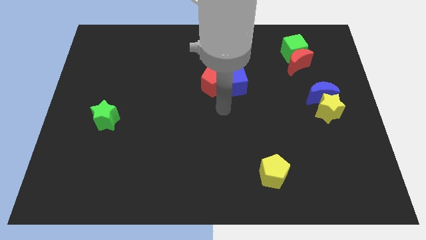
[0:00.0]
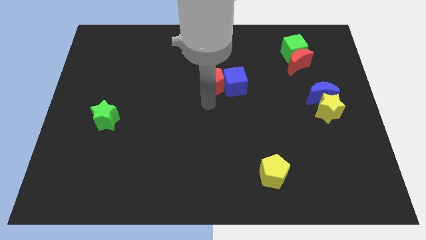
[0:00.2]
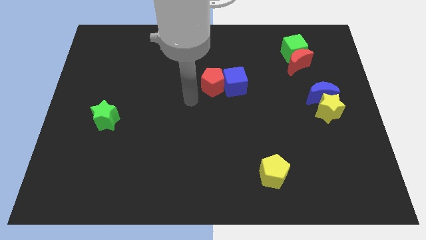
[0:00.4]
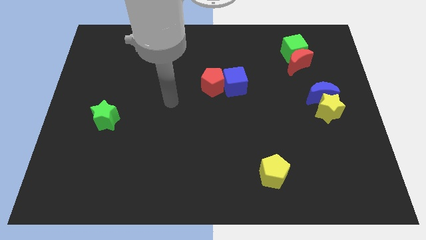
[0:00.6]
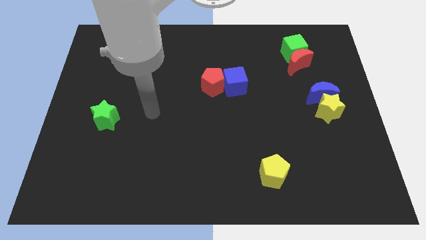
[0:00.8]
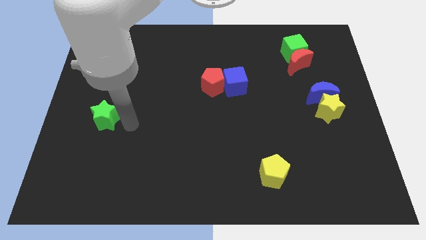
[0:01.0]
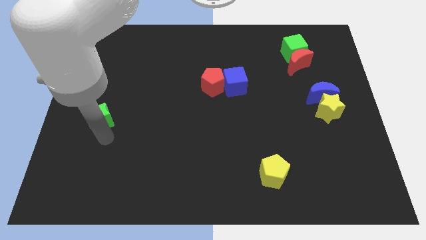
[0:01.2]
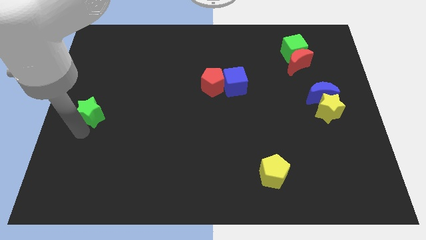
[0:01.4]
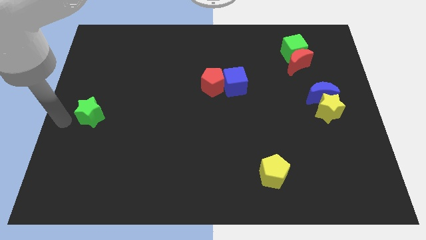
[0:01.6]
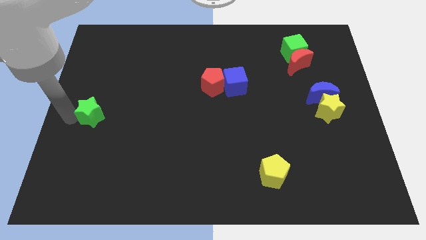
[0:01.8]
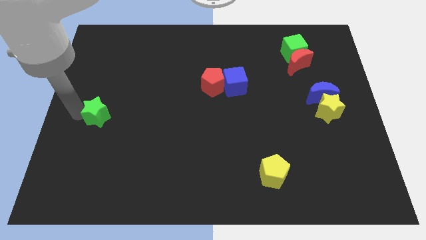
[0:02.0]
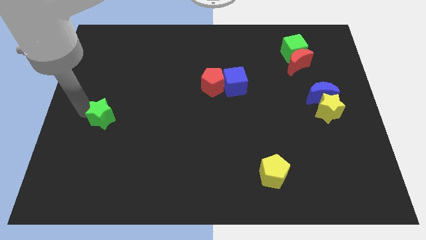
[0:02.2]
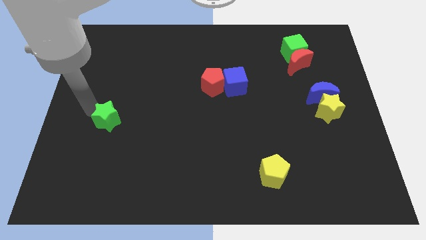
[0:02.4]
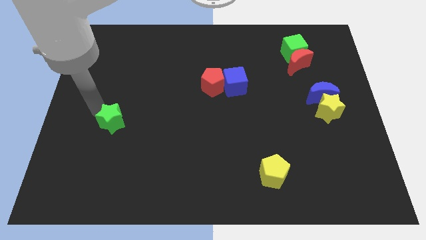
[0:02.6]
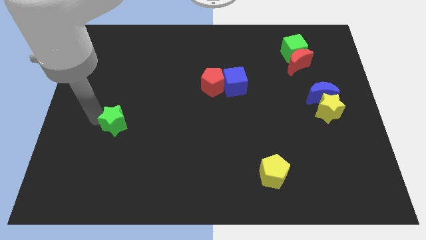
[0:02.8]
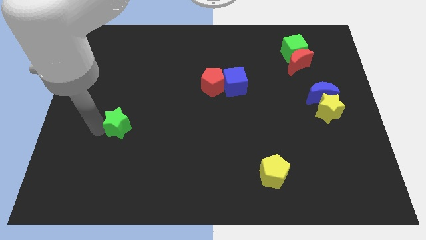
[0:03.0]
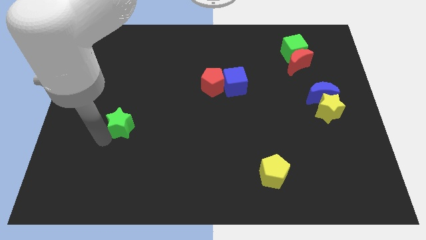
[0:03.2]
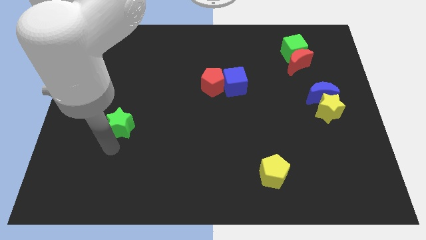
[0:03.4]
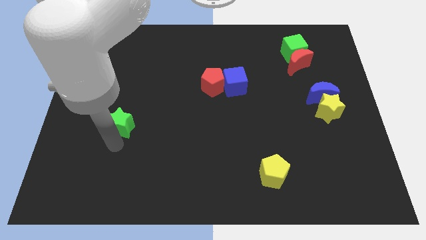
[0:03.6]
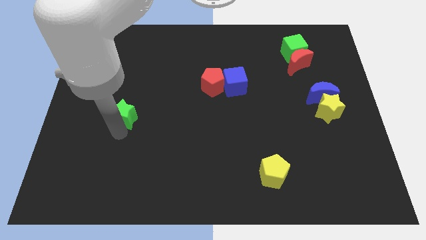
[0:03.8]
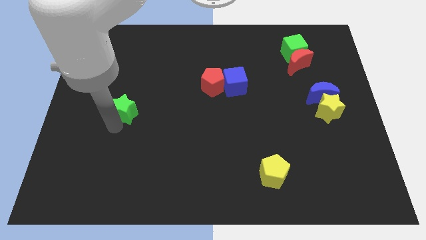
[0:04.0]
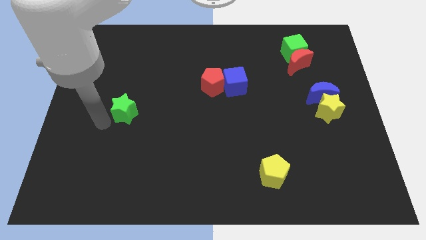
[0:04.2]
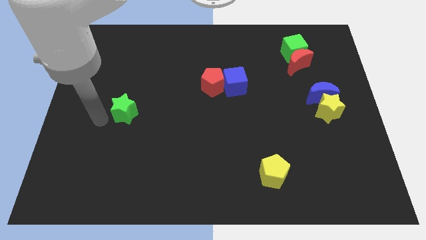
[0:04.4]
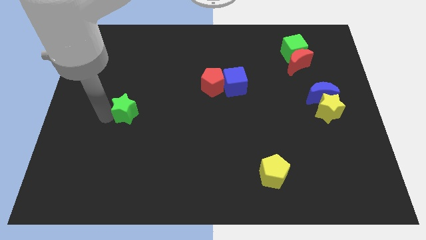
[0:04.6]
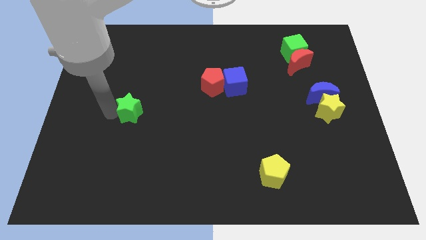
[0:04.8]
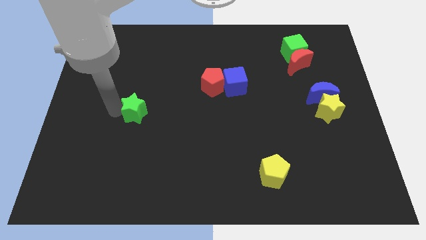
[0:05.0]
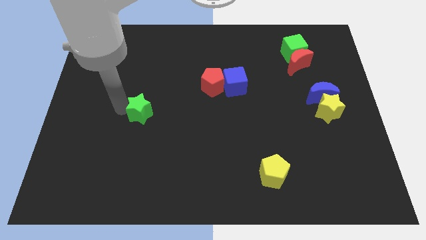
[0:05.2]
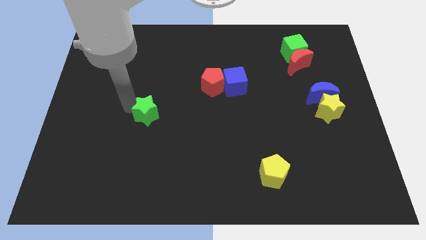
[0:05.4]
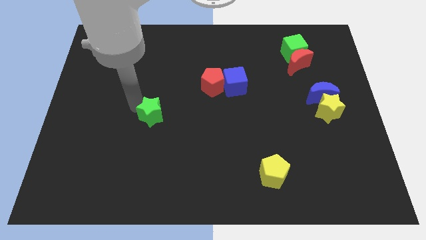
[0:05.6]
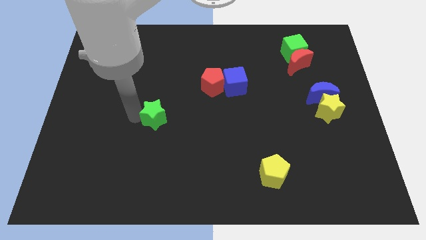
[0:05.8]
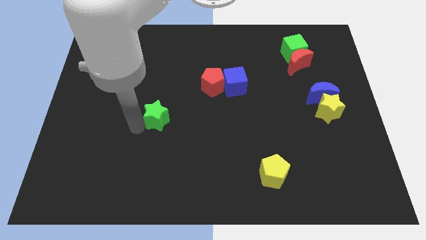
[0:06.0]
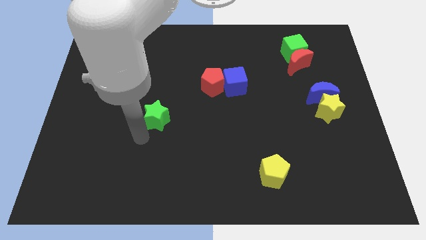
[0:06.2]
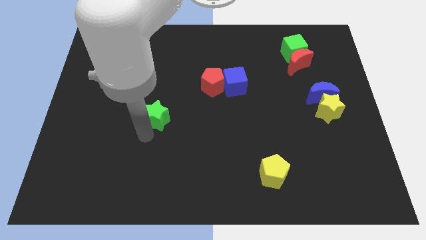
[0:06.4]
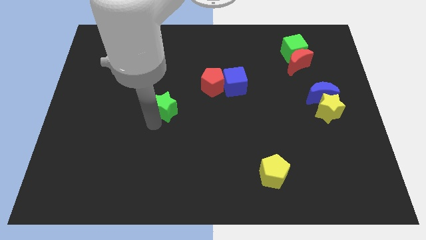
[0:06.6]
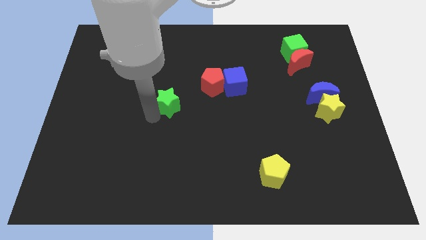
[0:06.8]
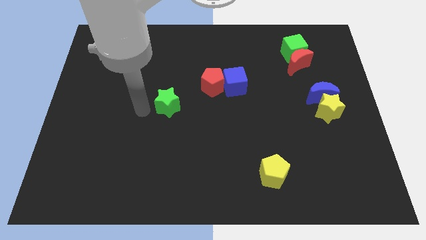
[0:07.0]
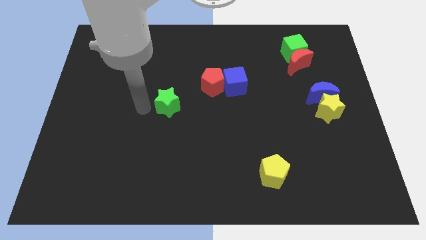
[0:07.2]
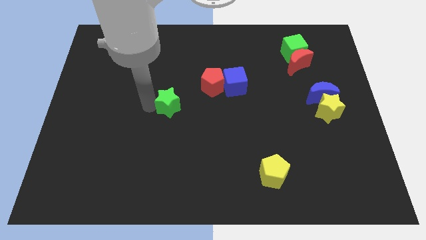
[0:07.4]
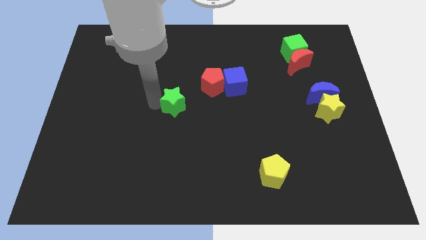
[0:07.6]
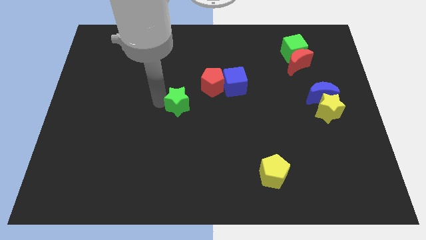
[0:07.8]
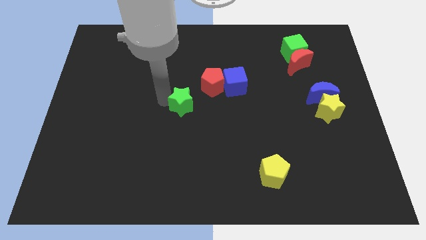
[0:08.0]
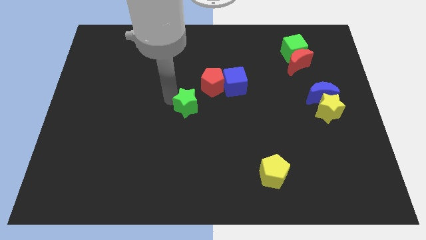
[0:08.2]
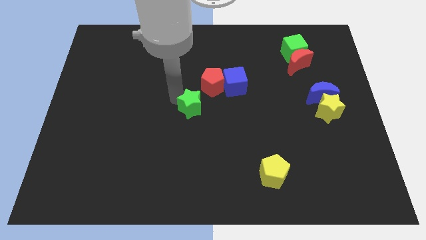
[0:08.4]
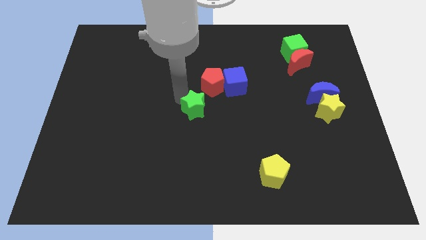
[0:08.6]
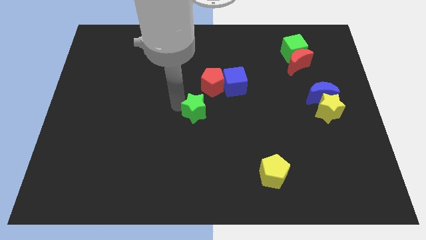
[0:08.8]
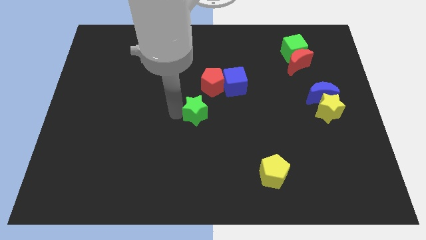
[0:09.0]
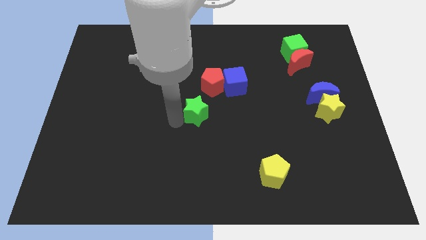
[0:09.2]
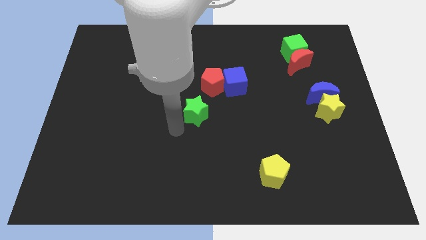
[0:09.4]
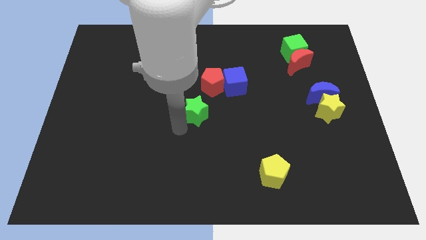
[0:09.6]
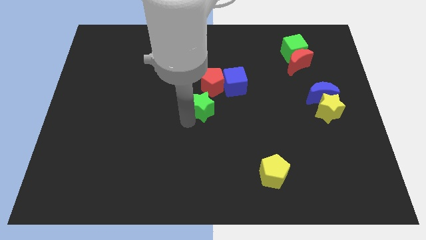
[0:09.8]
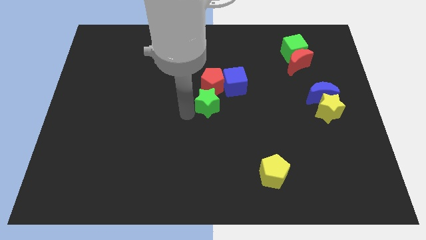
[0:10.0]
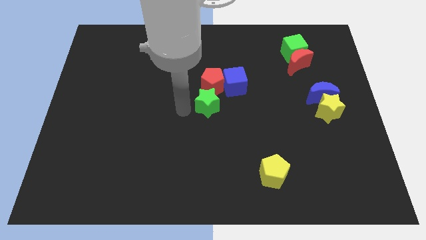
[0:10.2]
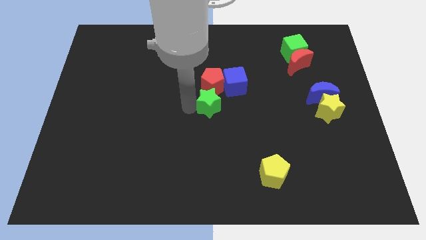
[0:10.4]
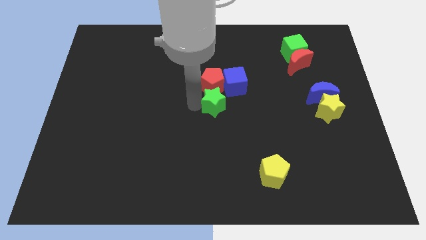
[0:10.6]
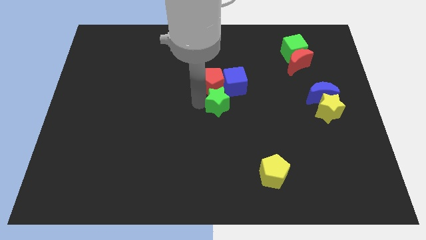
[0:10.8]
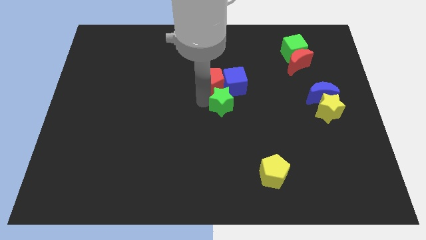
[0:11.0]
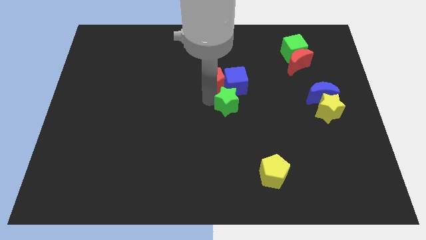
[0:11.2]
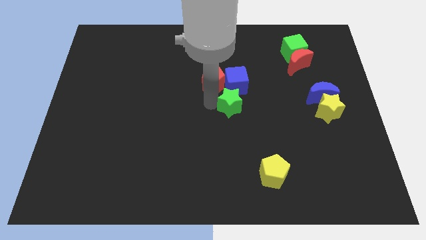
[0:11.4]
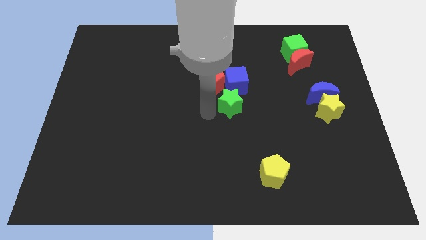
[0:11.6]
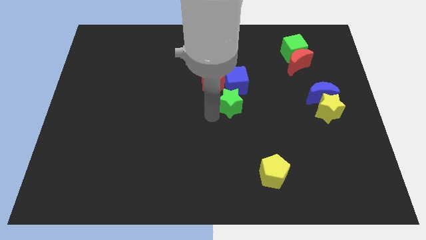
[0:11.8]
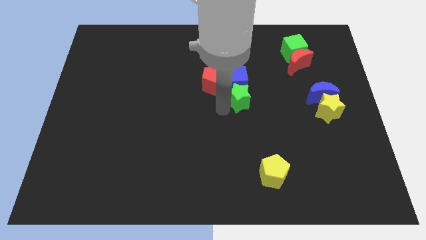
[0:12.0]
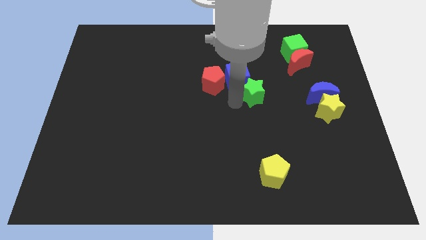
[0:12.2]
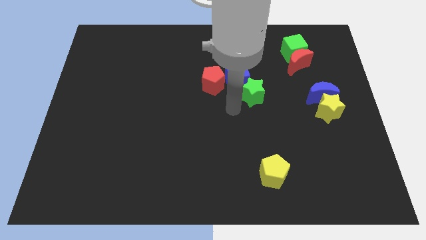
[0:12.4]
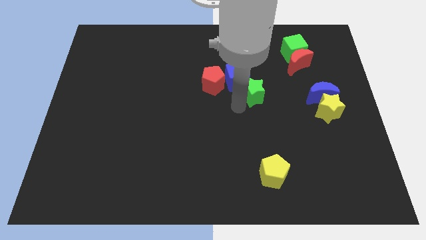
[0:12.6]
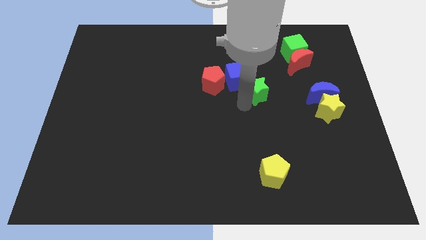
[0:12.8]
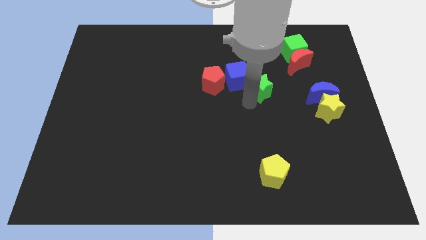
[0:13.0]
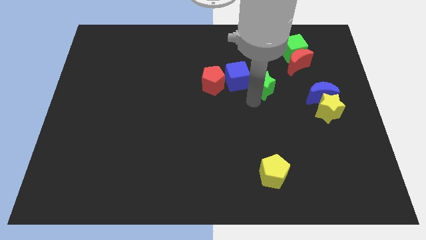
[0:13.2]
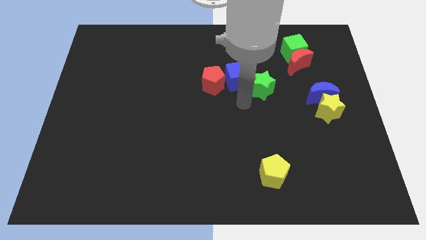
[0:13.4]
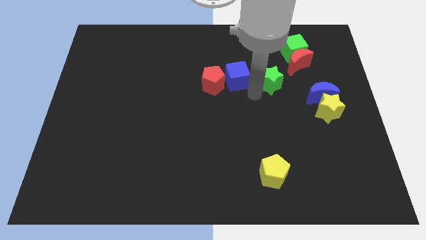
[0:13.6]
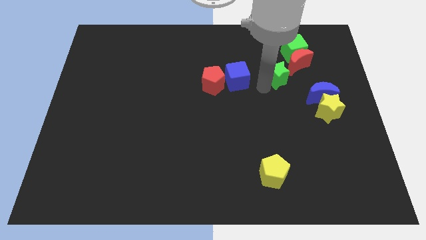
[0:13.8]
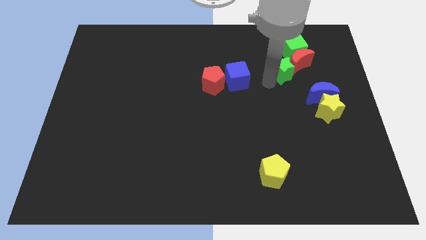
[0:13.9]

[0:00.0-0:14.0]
put the green star towards the red moon

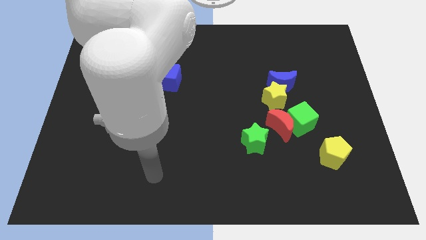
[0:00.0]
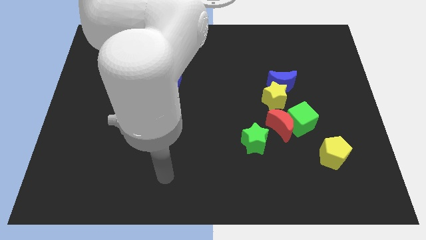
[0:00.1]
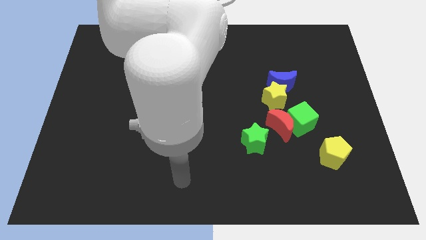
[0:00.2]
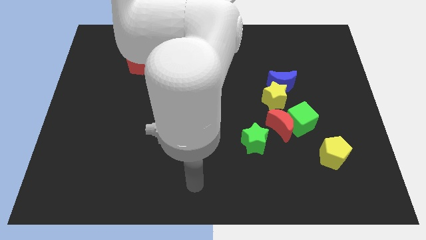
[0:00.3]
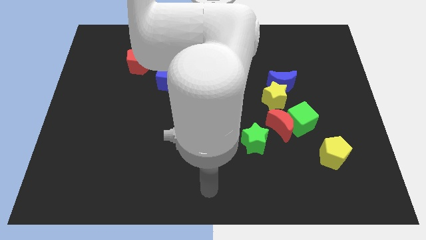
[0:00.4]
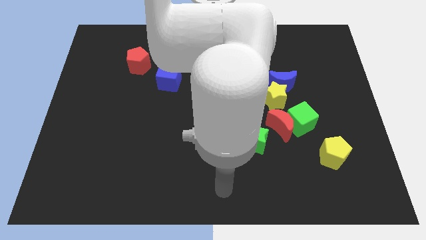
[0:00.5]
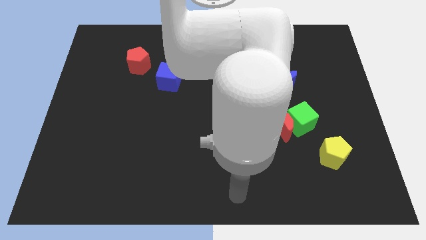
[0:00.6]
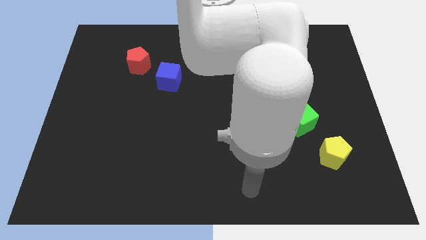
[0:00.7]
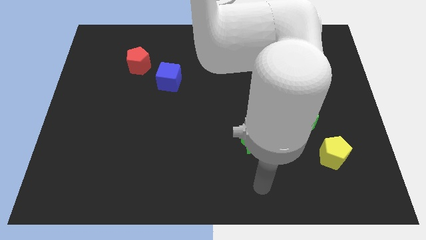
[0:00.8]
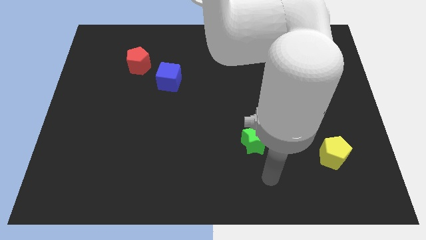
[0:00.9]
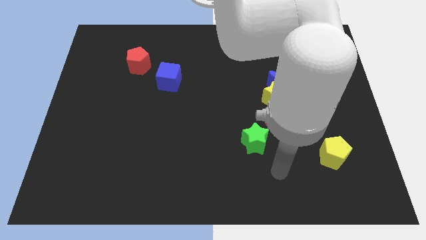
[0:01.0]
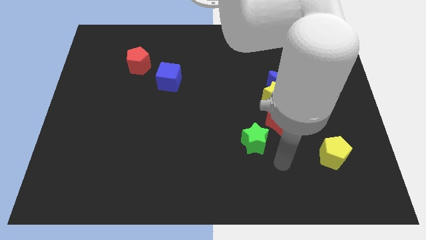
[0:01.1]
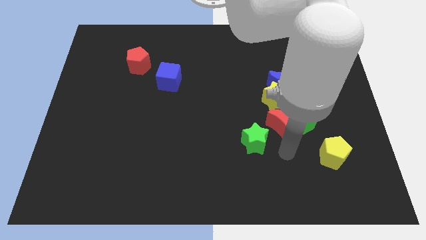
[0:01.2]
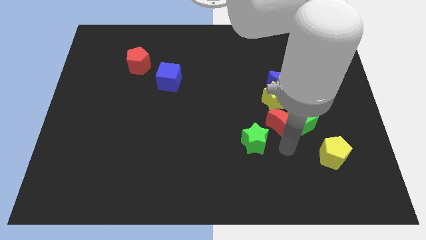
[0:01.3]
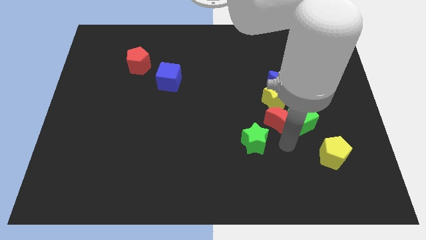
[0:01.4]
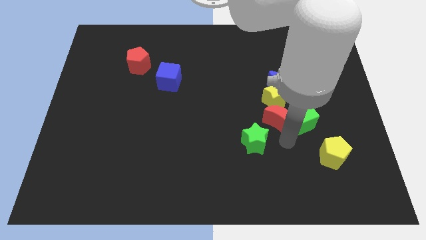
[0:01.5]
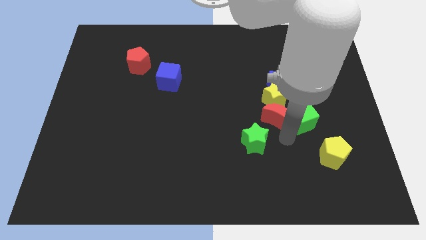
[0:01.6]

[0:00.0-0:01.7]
slide the red moon to the yellow star
